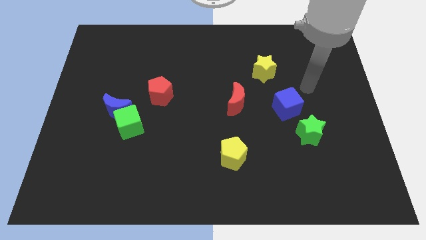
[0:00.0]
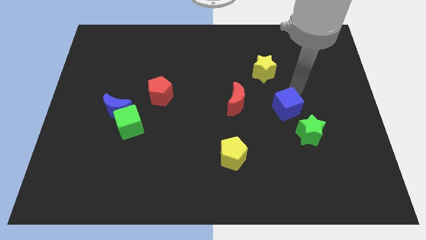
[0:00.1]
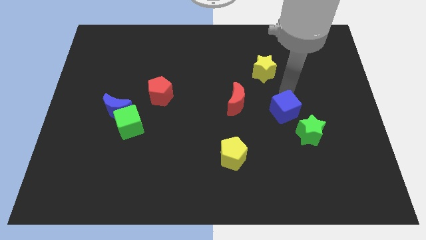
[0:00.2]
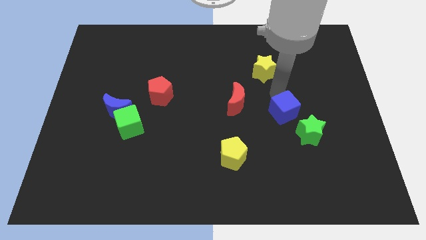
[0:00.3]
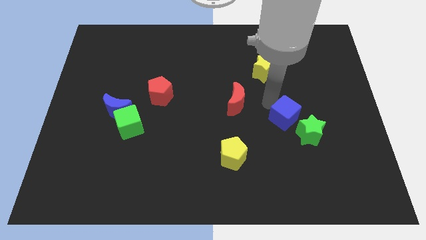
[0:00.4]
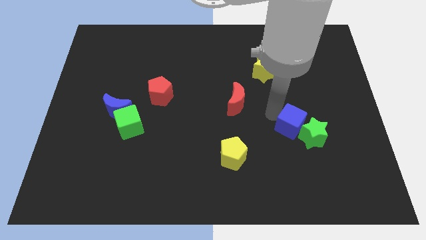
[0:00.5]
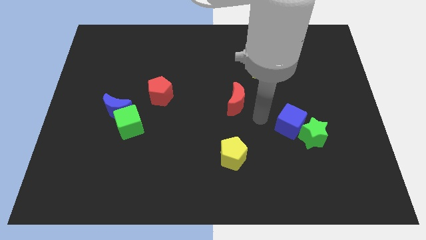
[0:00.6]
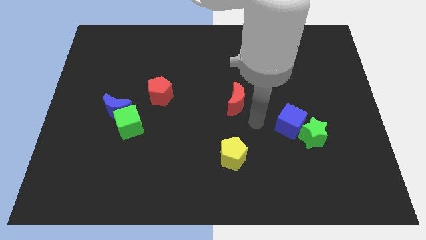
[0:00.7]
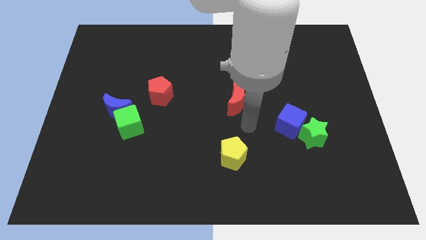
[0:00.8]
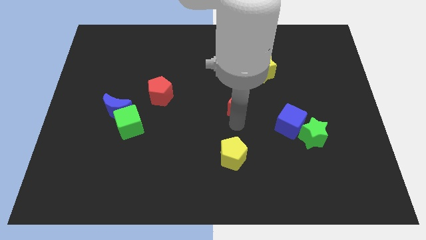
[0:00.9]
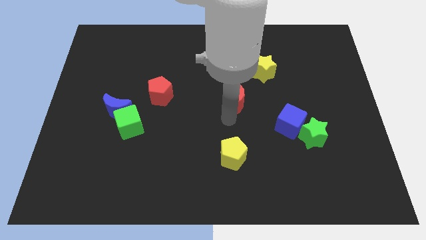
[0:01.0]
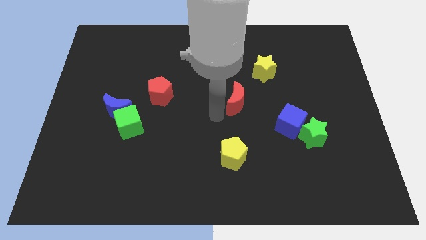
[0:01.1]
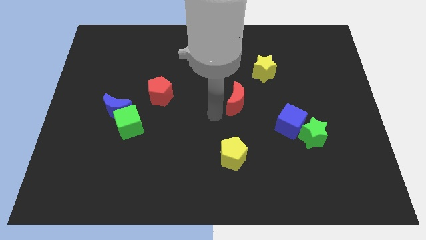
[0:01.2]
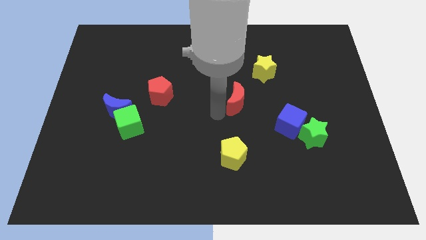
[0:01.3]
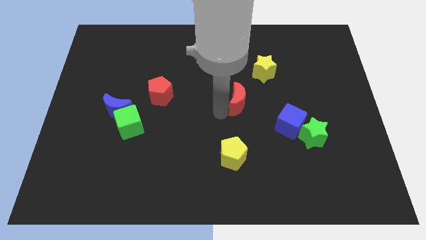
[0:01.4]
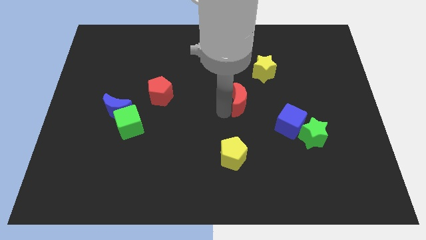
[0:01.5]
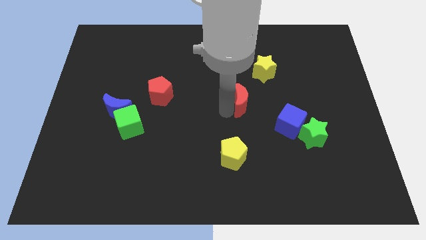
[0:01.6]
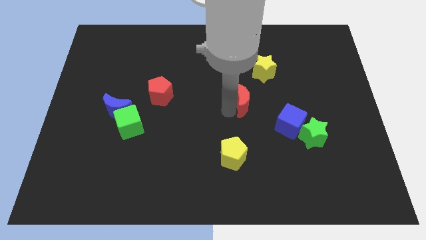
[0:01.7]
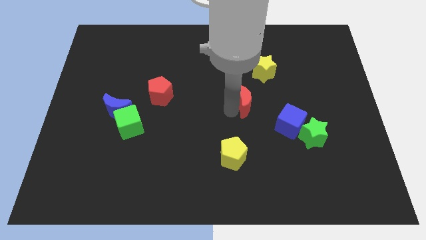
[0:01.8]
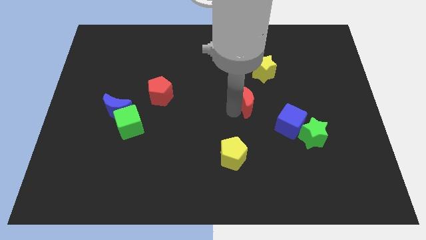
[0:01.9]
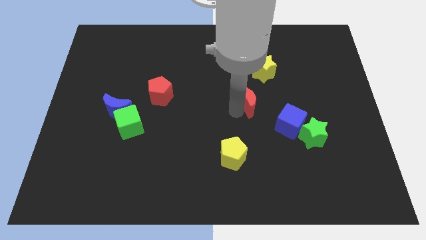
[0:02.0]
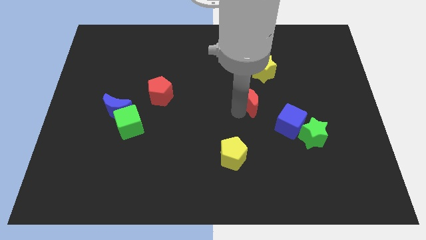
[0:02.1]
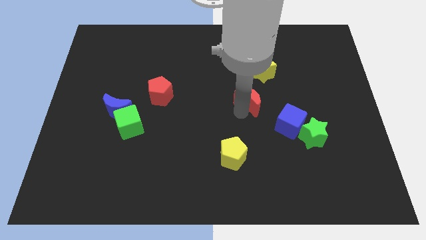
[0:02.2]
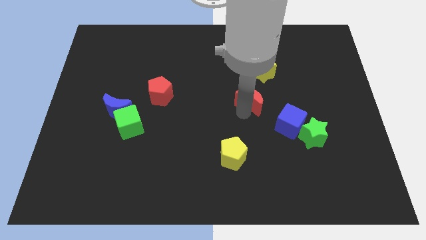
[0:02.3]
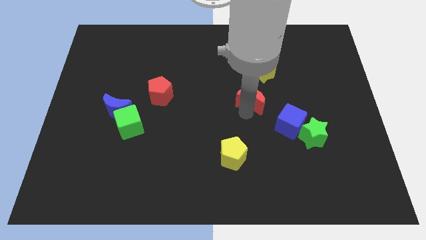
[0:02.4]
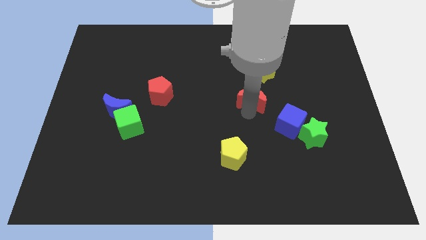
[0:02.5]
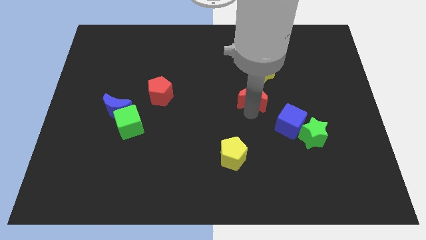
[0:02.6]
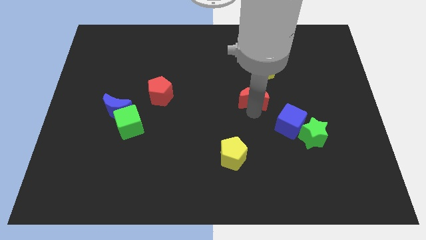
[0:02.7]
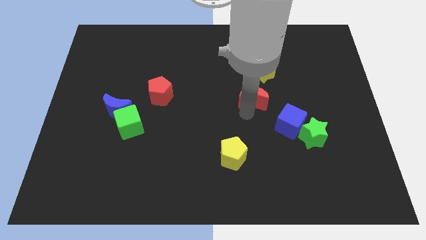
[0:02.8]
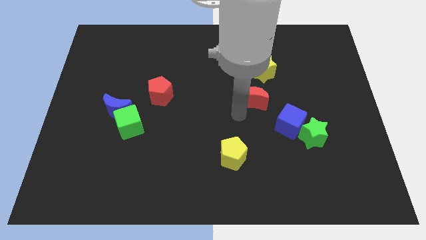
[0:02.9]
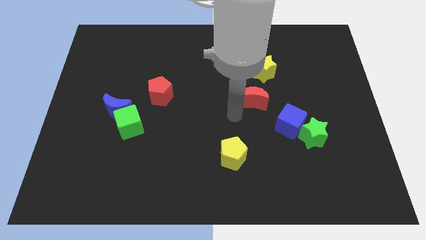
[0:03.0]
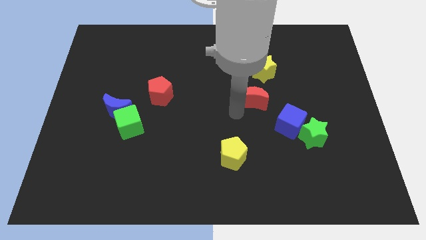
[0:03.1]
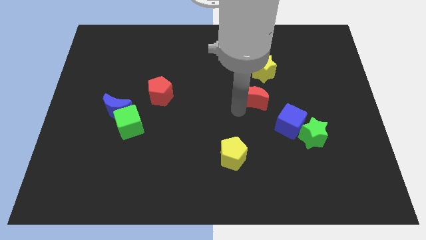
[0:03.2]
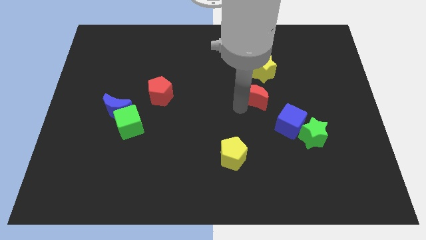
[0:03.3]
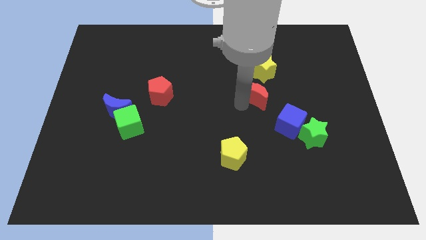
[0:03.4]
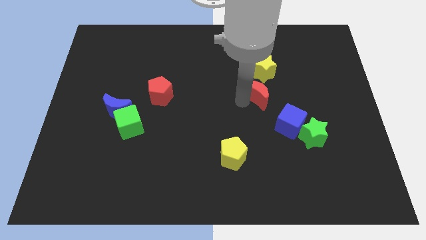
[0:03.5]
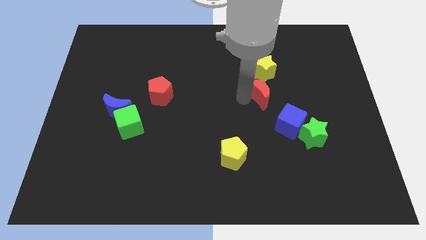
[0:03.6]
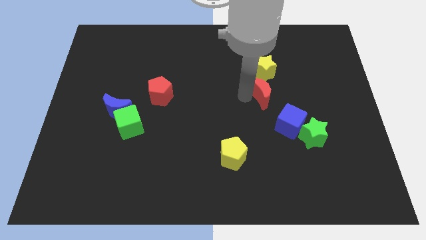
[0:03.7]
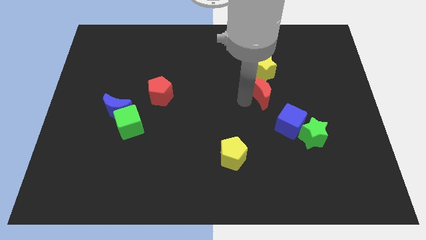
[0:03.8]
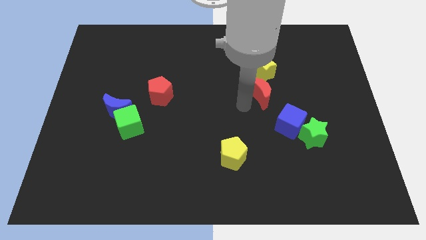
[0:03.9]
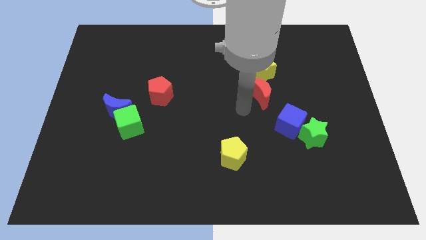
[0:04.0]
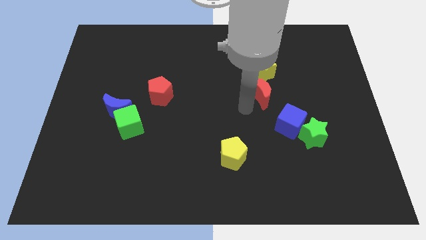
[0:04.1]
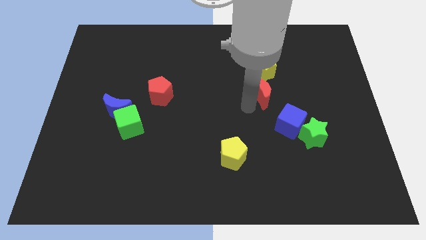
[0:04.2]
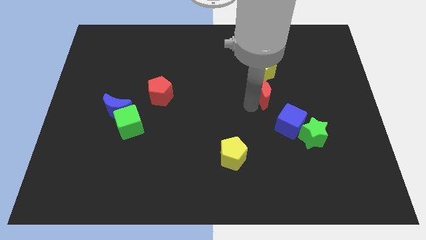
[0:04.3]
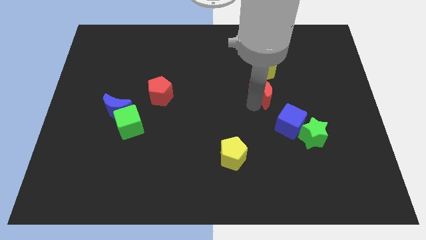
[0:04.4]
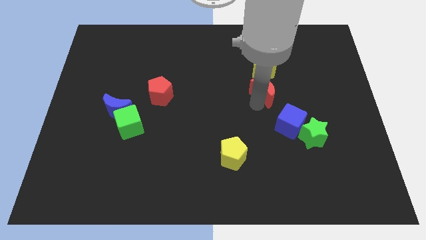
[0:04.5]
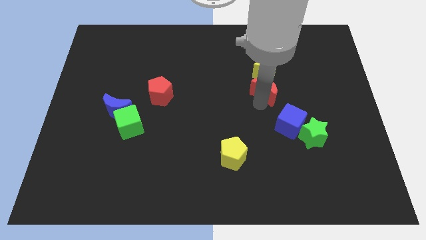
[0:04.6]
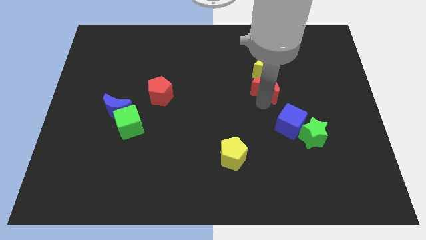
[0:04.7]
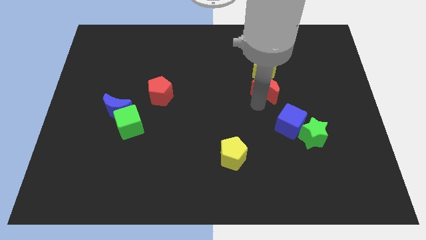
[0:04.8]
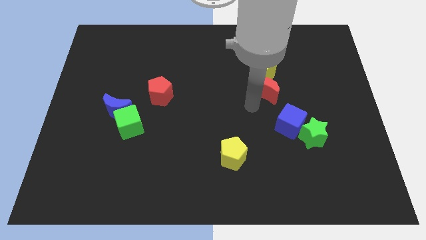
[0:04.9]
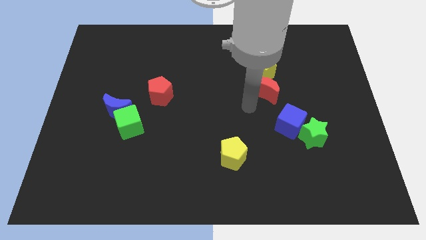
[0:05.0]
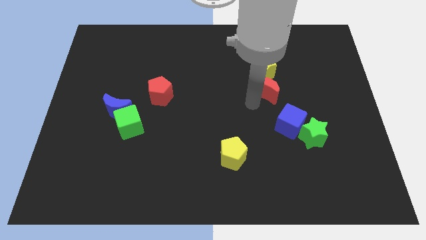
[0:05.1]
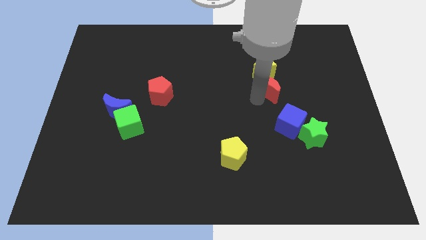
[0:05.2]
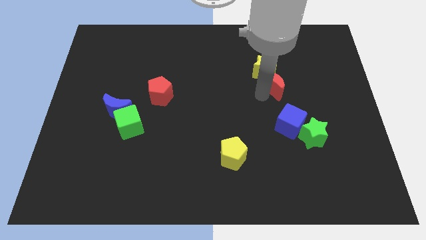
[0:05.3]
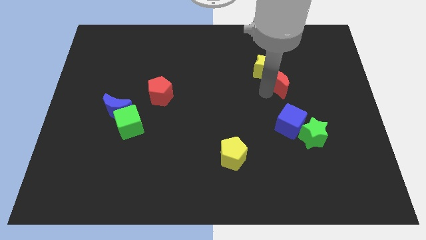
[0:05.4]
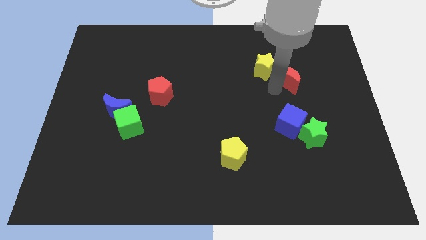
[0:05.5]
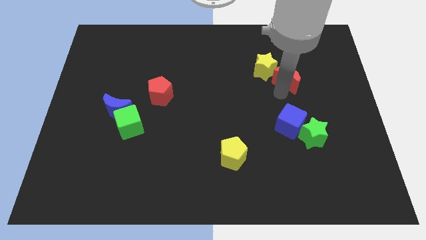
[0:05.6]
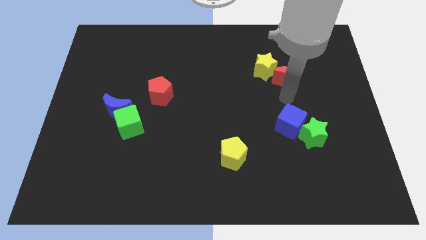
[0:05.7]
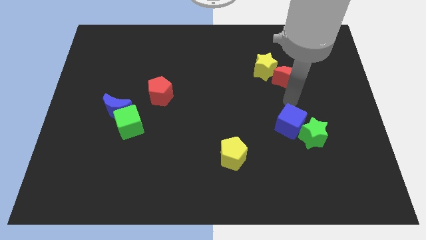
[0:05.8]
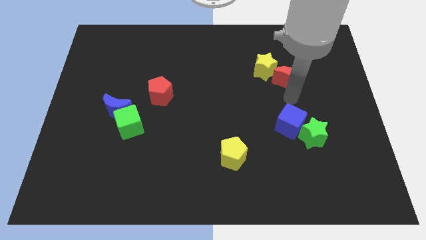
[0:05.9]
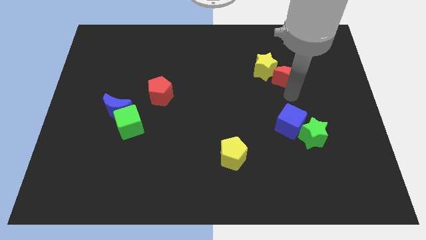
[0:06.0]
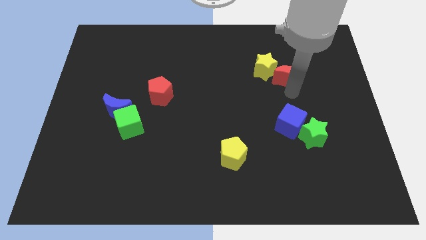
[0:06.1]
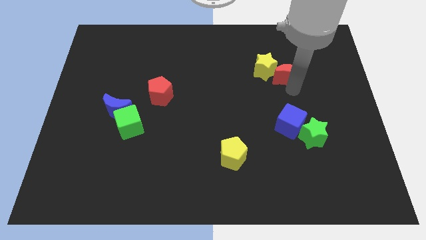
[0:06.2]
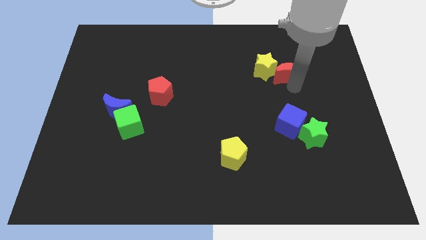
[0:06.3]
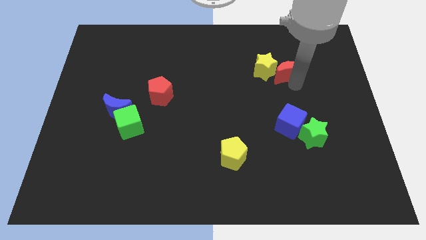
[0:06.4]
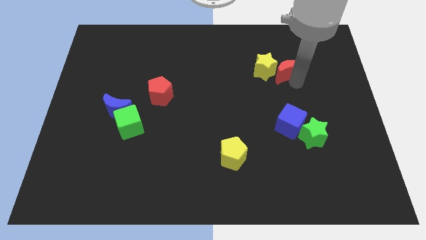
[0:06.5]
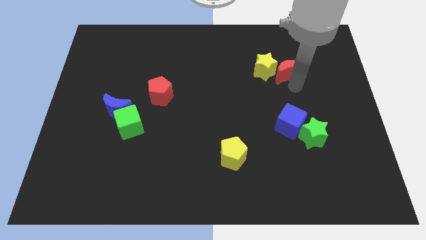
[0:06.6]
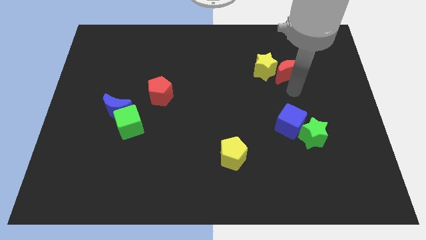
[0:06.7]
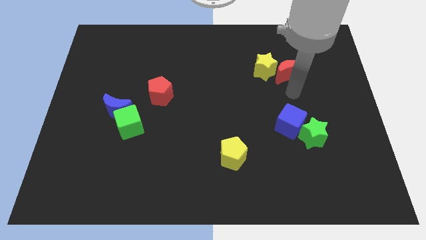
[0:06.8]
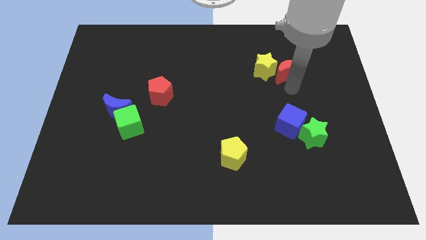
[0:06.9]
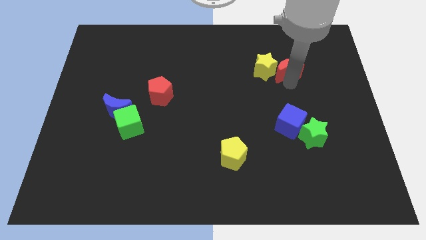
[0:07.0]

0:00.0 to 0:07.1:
slide the red moon diagonally up and to the right of the yellow star

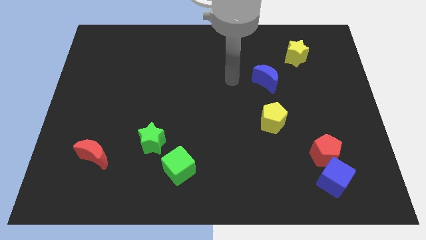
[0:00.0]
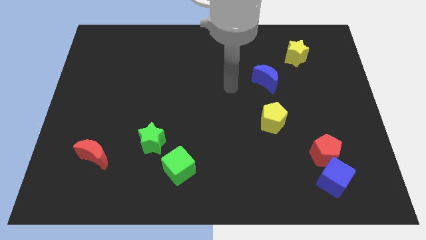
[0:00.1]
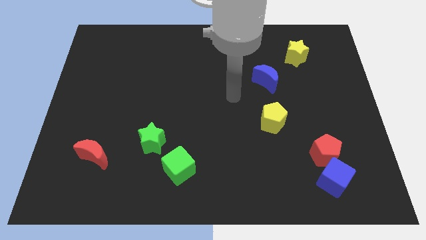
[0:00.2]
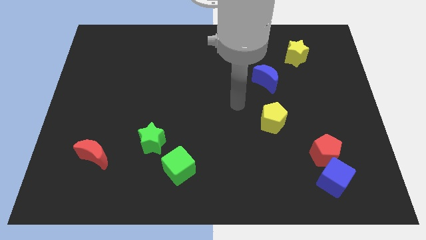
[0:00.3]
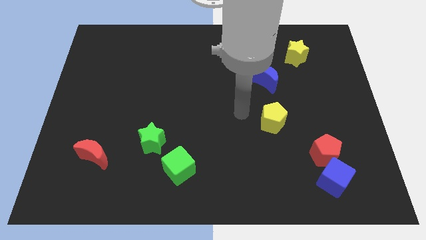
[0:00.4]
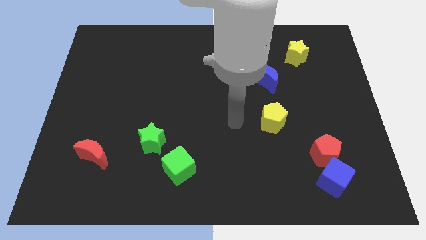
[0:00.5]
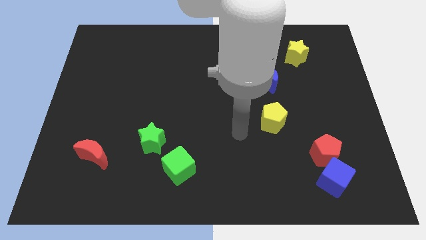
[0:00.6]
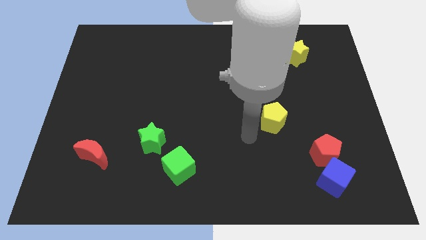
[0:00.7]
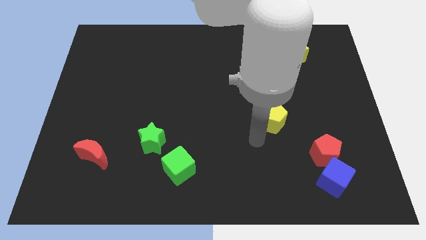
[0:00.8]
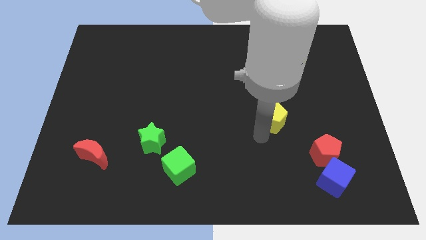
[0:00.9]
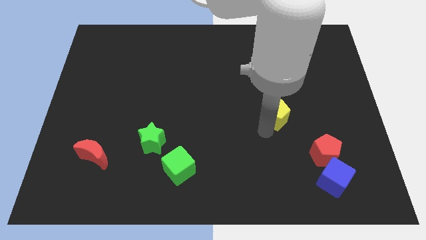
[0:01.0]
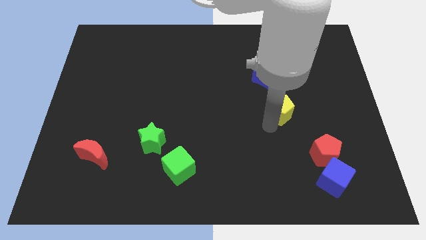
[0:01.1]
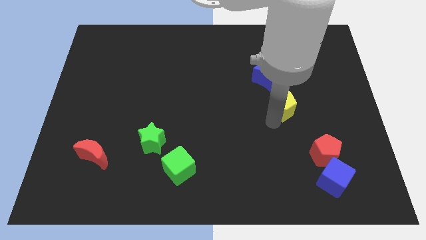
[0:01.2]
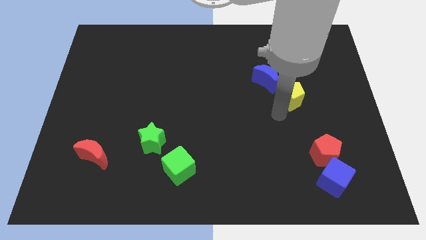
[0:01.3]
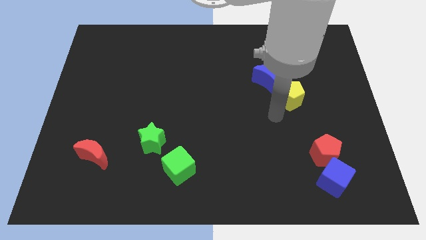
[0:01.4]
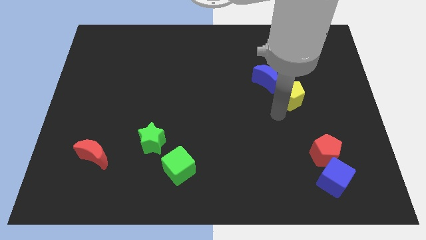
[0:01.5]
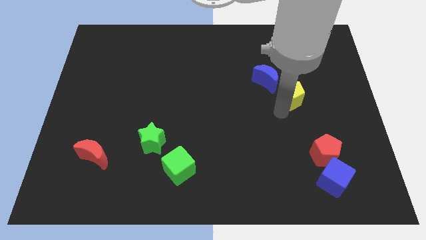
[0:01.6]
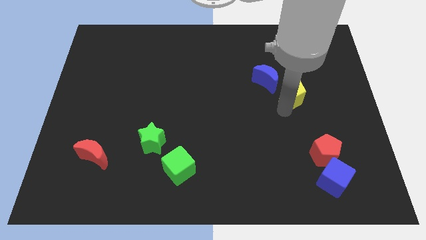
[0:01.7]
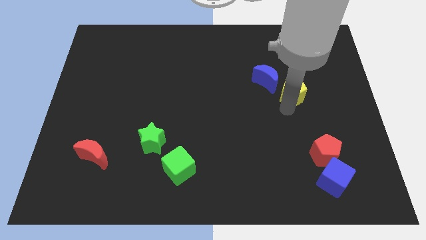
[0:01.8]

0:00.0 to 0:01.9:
push the yellow pentagon to the right of the blue moon
